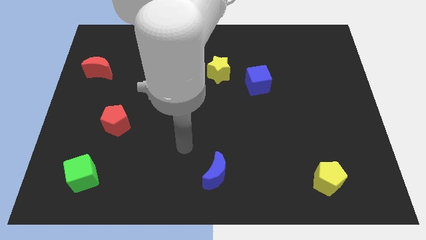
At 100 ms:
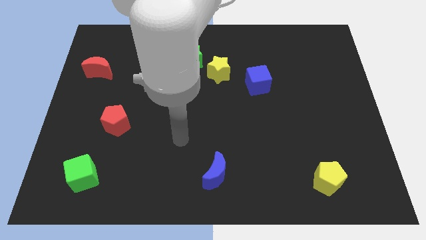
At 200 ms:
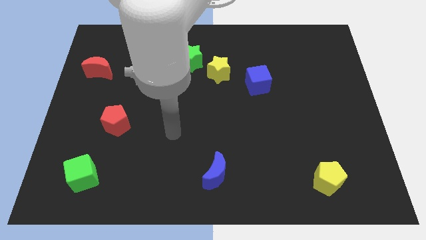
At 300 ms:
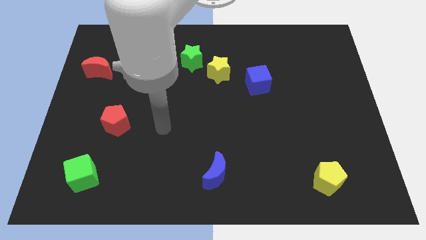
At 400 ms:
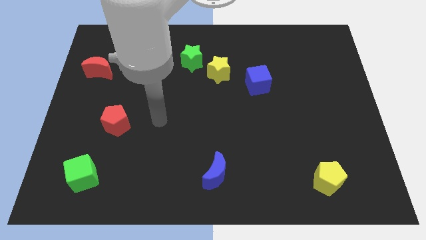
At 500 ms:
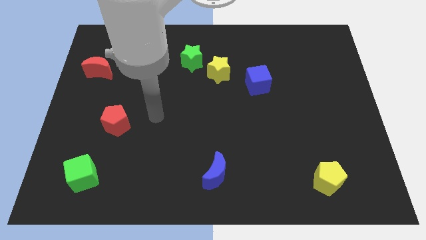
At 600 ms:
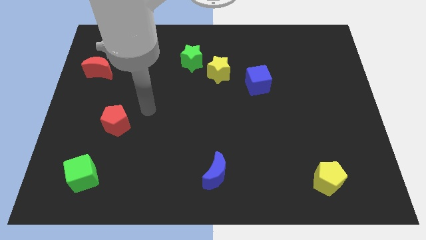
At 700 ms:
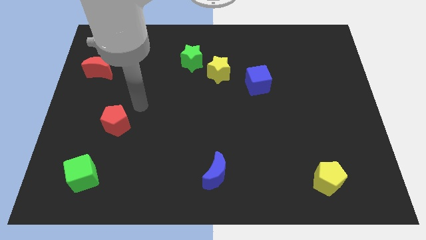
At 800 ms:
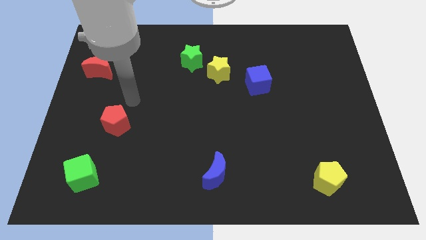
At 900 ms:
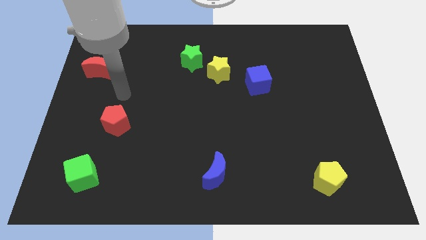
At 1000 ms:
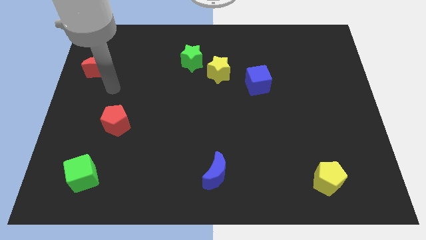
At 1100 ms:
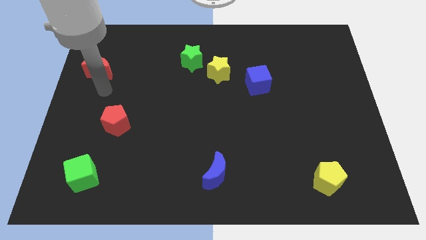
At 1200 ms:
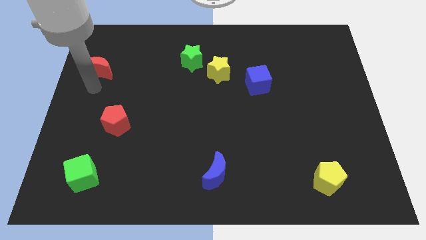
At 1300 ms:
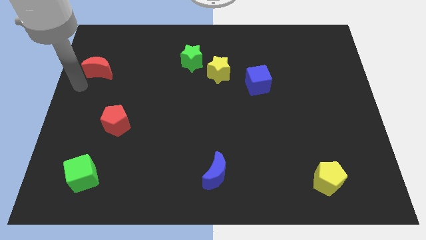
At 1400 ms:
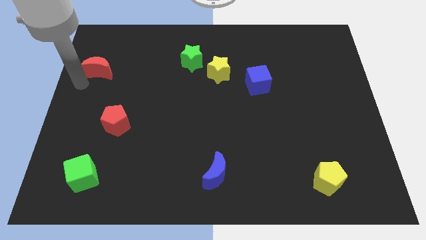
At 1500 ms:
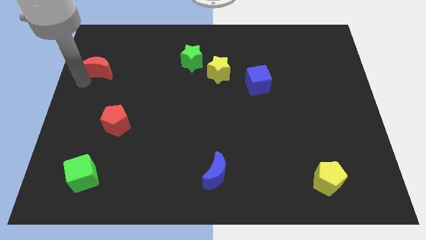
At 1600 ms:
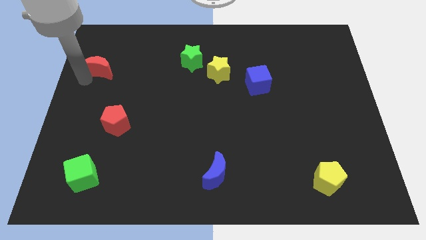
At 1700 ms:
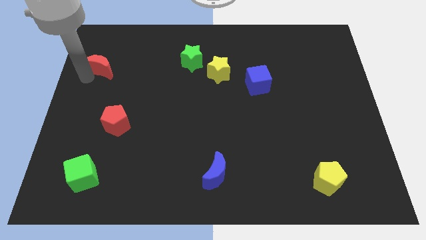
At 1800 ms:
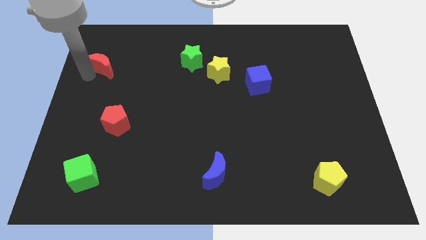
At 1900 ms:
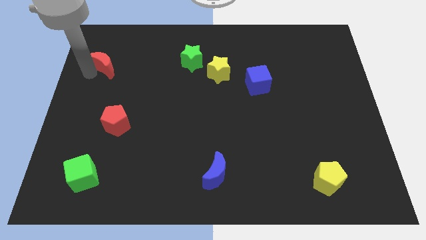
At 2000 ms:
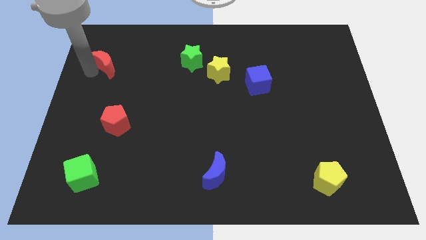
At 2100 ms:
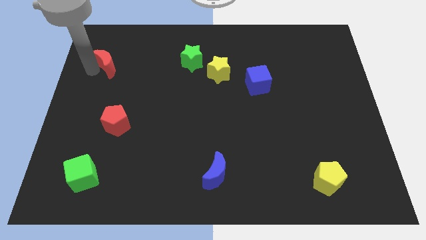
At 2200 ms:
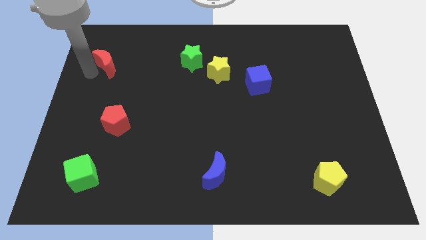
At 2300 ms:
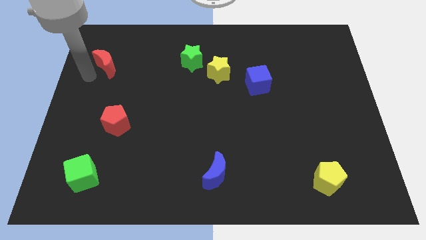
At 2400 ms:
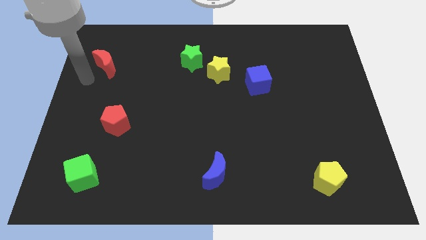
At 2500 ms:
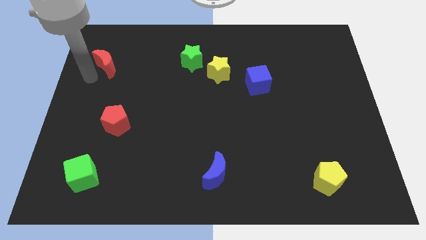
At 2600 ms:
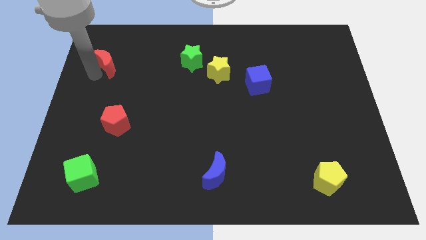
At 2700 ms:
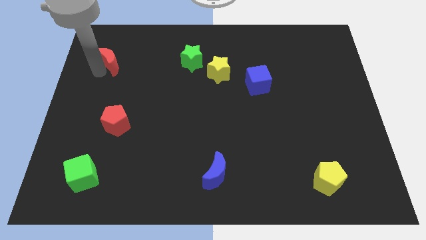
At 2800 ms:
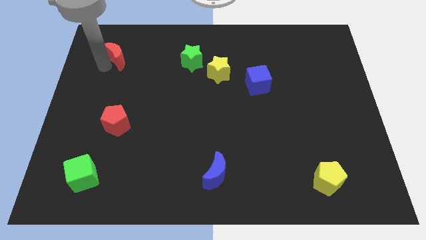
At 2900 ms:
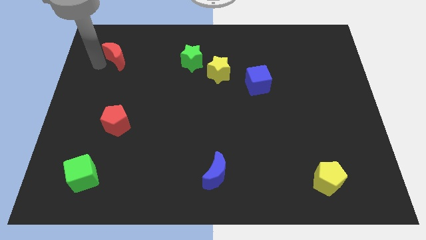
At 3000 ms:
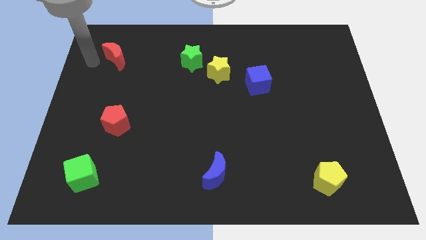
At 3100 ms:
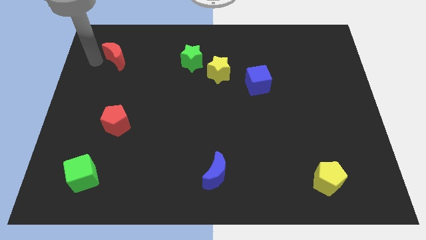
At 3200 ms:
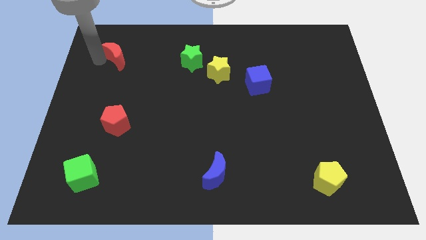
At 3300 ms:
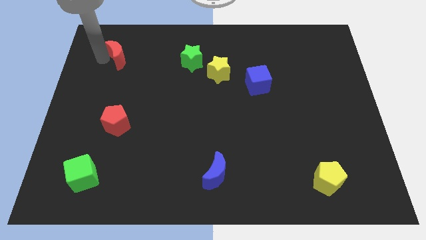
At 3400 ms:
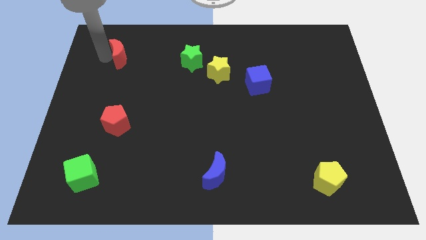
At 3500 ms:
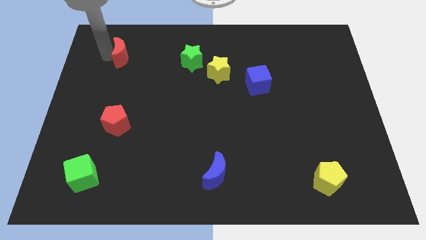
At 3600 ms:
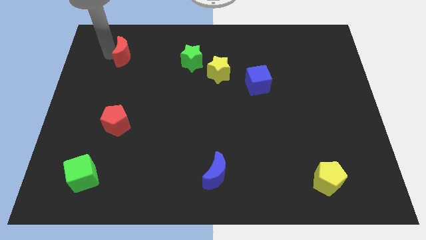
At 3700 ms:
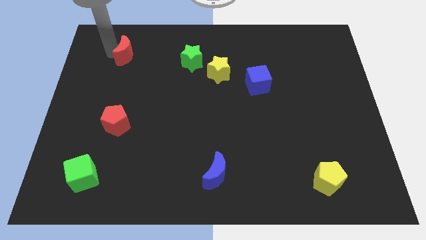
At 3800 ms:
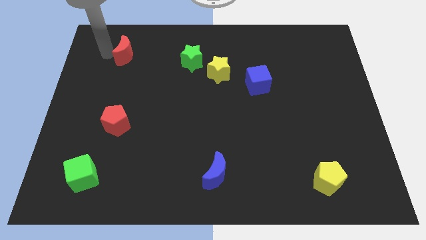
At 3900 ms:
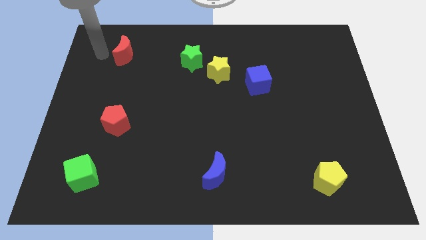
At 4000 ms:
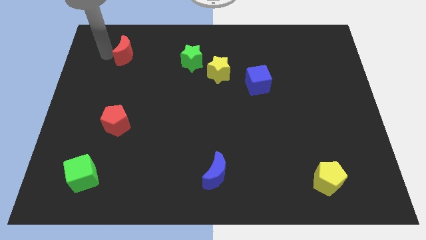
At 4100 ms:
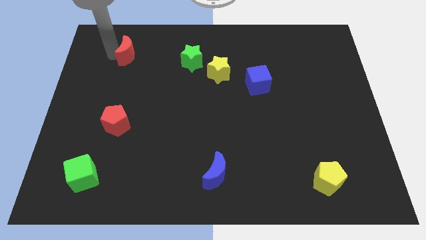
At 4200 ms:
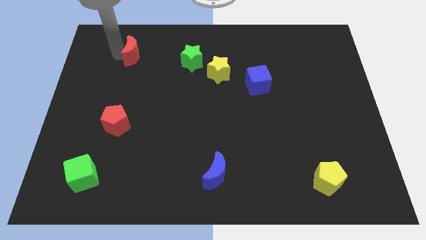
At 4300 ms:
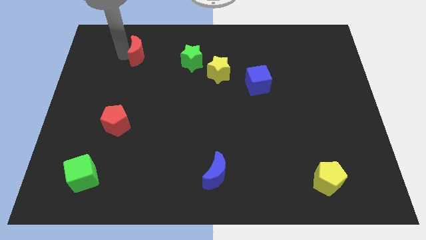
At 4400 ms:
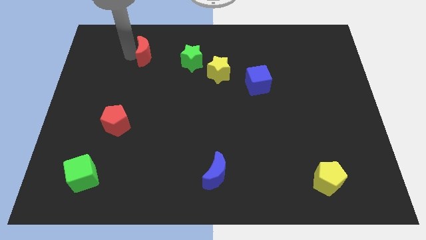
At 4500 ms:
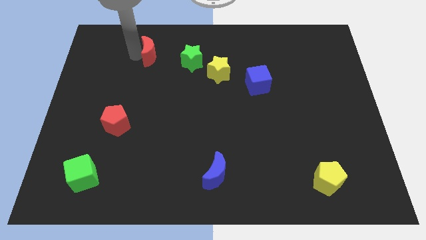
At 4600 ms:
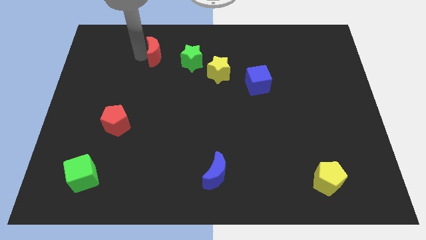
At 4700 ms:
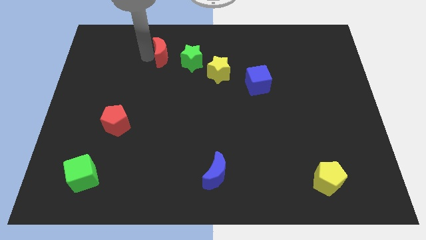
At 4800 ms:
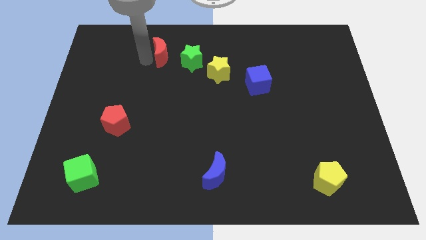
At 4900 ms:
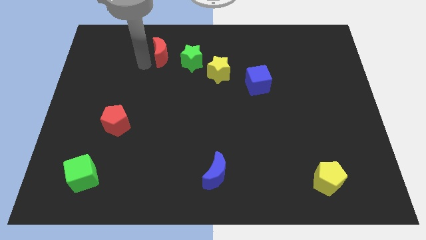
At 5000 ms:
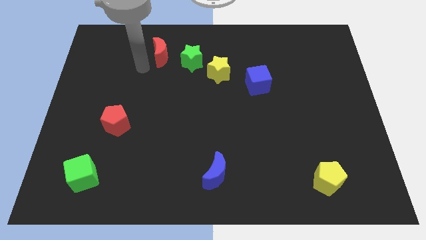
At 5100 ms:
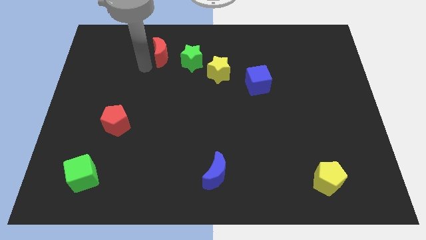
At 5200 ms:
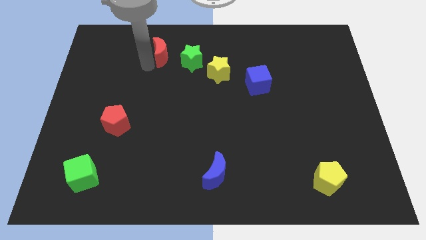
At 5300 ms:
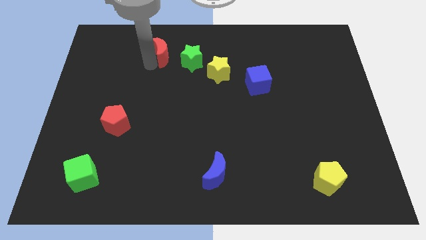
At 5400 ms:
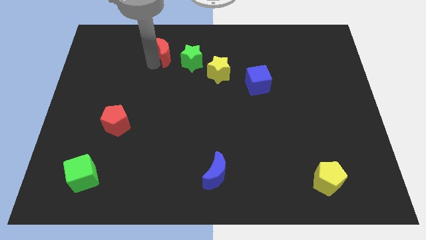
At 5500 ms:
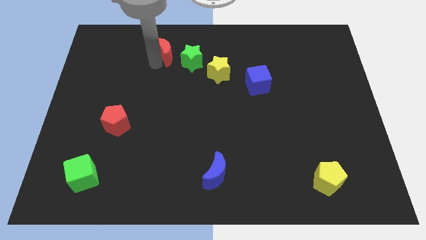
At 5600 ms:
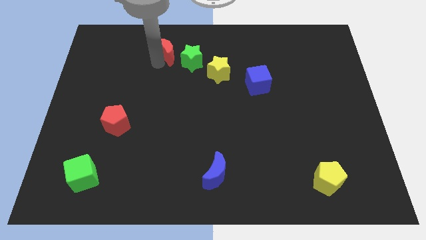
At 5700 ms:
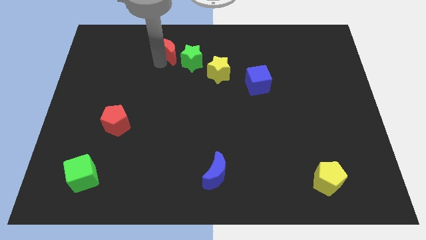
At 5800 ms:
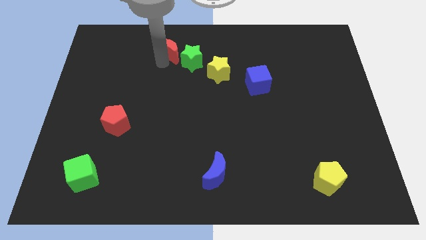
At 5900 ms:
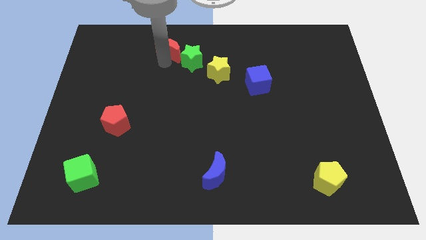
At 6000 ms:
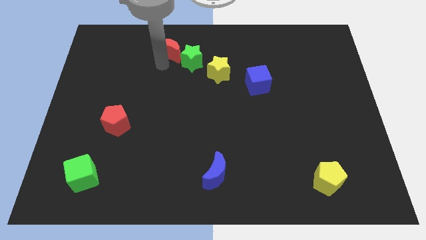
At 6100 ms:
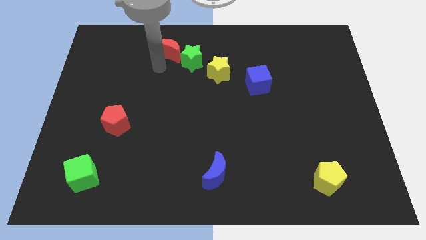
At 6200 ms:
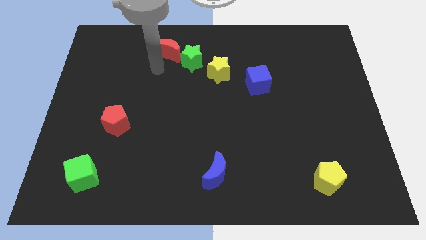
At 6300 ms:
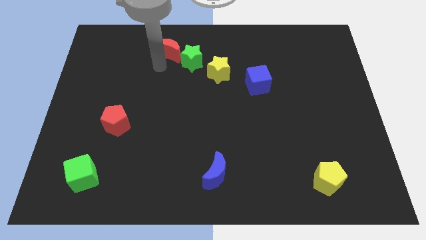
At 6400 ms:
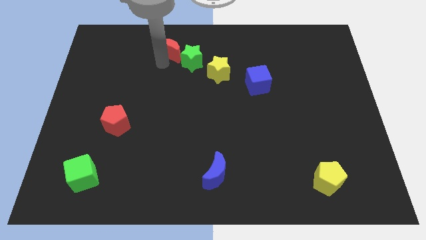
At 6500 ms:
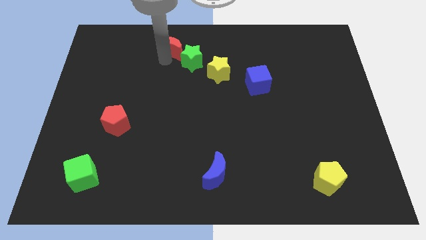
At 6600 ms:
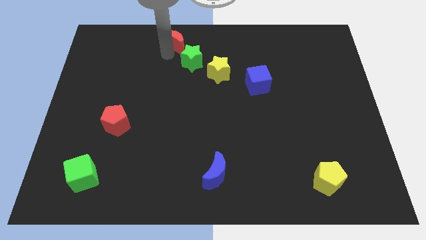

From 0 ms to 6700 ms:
push the red moon to the top
